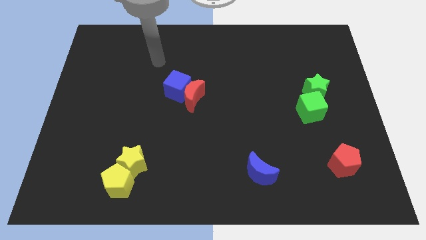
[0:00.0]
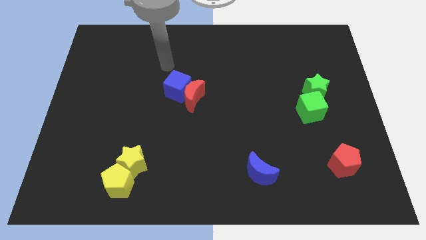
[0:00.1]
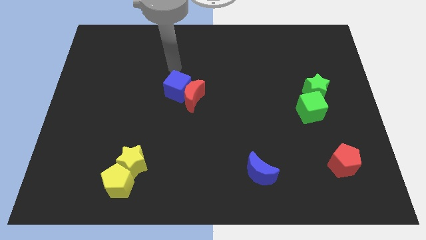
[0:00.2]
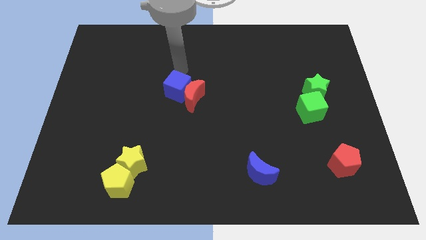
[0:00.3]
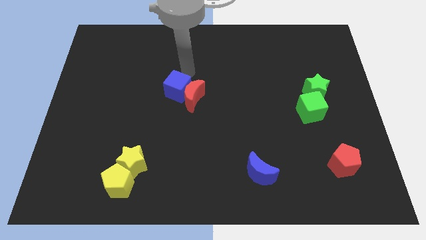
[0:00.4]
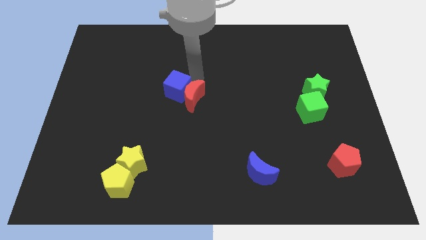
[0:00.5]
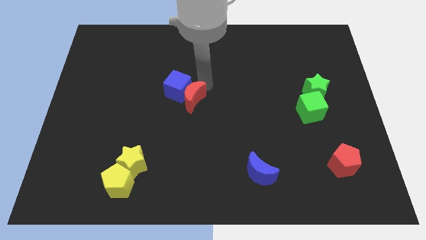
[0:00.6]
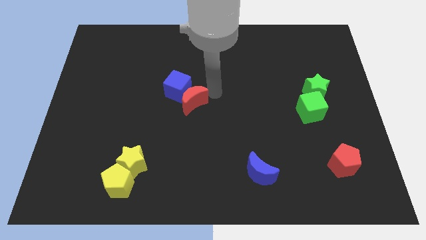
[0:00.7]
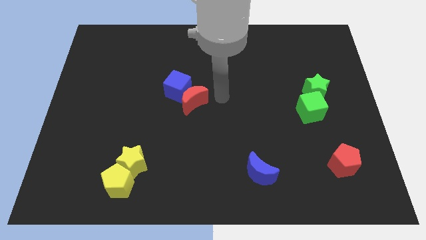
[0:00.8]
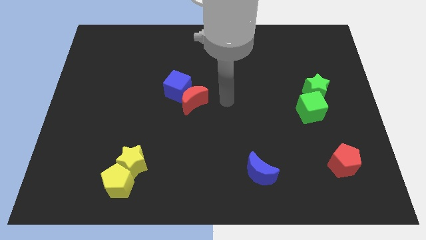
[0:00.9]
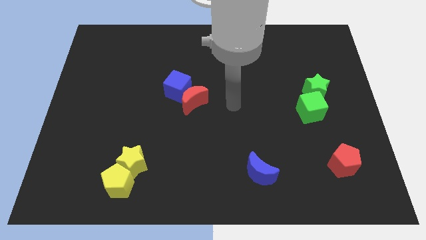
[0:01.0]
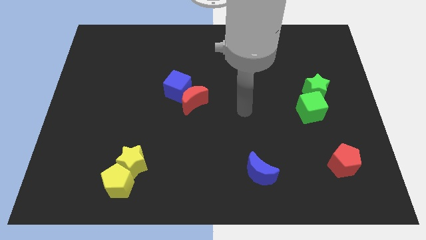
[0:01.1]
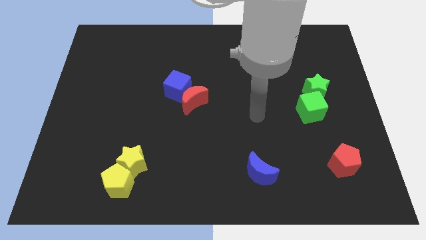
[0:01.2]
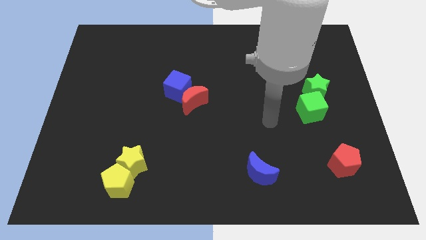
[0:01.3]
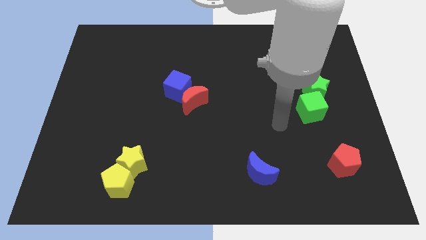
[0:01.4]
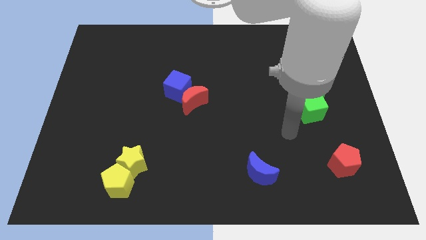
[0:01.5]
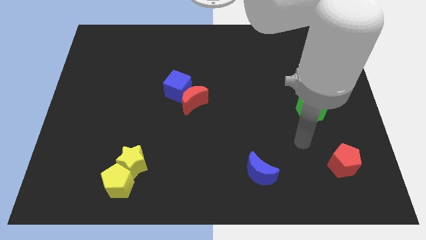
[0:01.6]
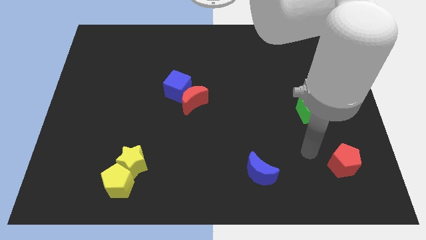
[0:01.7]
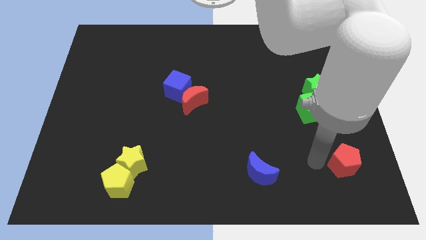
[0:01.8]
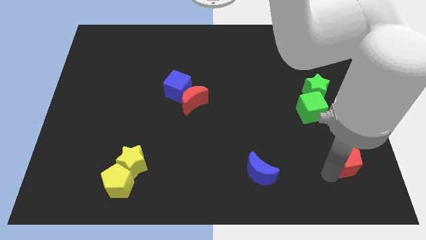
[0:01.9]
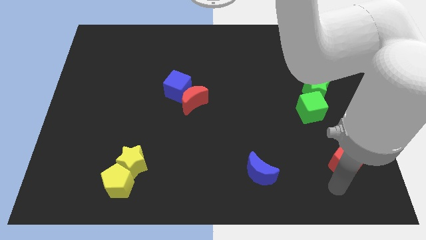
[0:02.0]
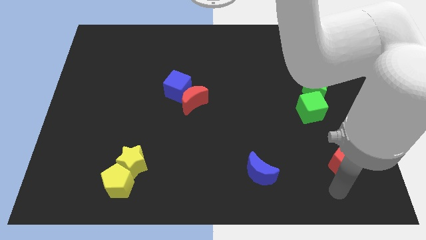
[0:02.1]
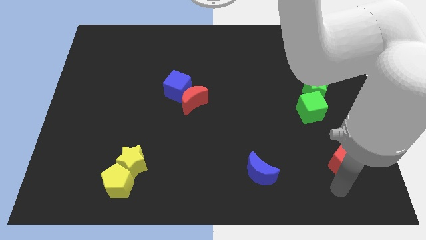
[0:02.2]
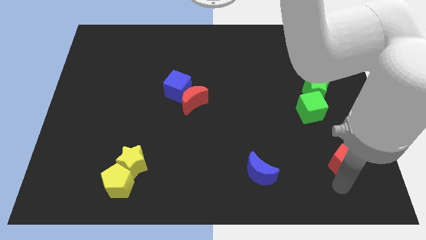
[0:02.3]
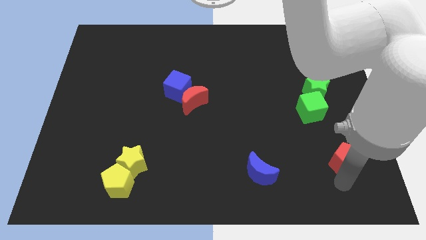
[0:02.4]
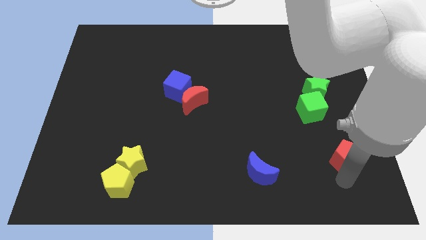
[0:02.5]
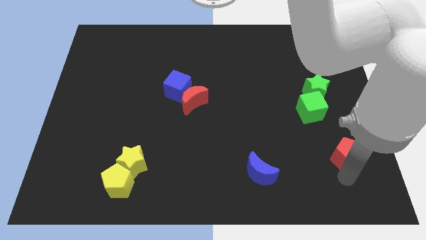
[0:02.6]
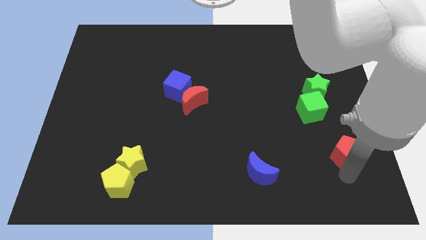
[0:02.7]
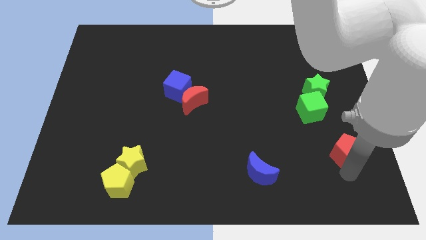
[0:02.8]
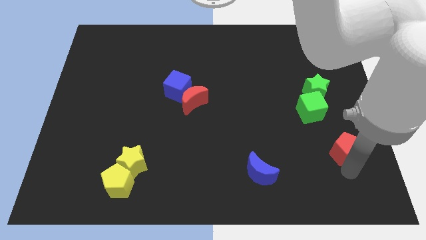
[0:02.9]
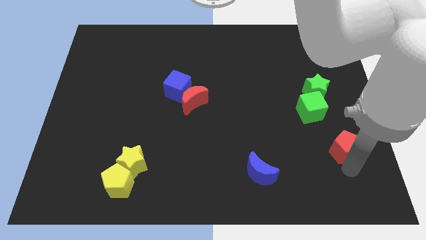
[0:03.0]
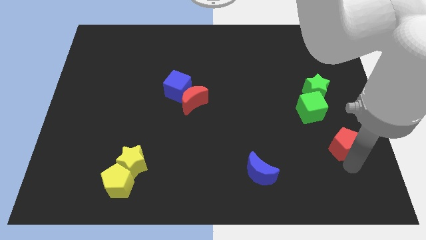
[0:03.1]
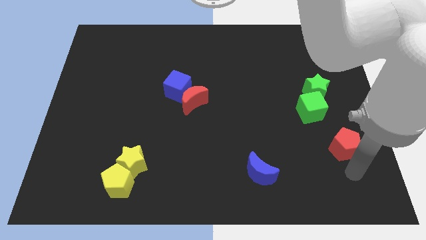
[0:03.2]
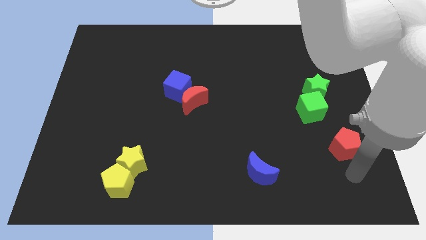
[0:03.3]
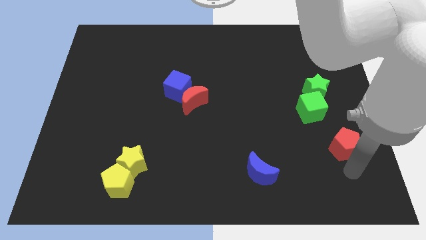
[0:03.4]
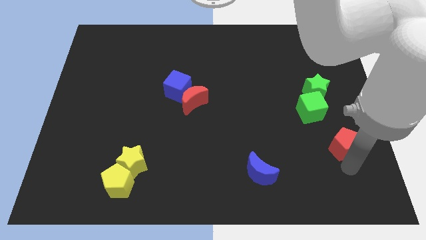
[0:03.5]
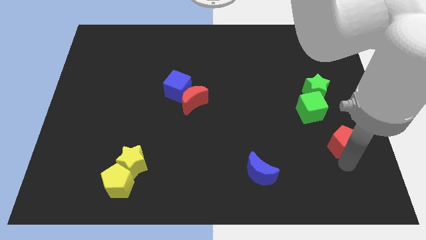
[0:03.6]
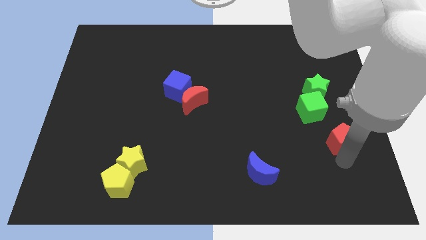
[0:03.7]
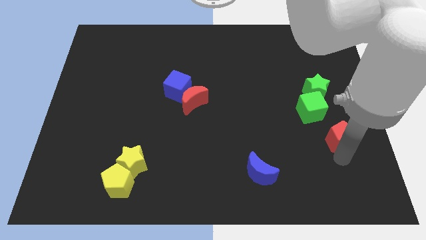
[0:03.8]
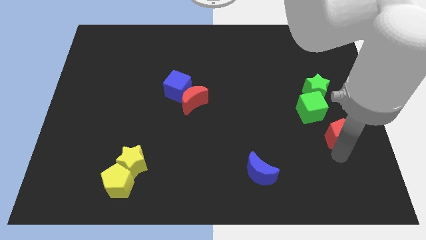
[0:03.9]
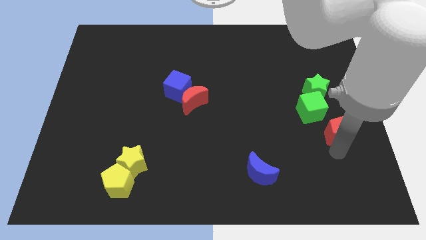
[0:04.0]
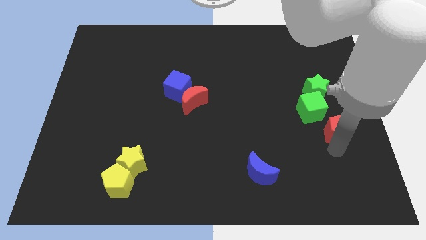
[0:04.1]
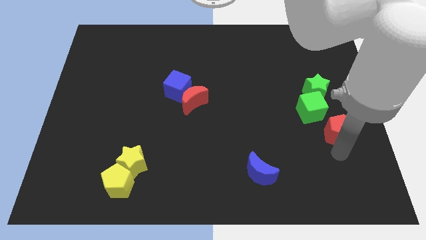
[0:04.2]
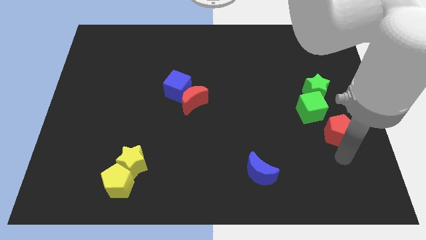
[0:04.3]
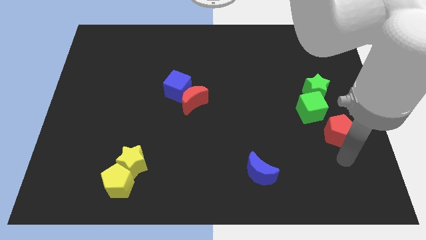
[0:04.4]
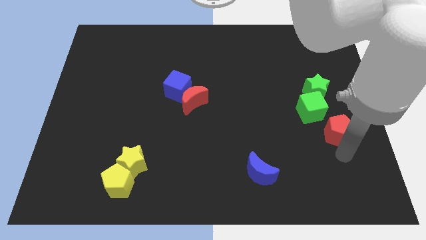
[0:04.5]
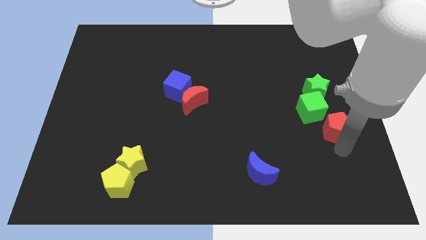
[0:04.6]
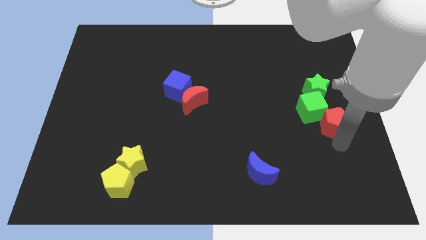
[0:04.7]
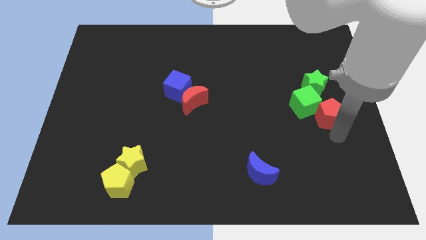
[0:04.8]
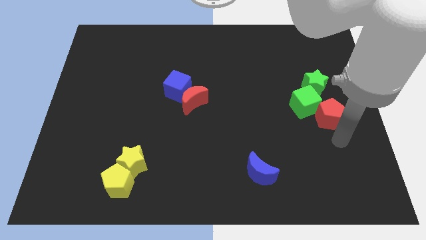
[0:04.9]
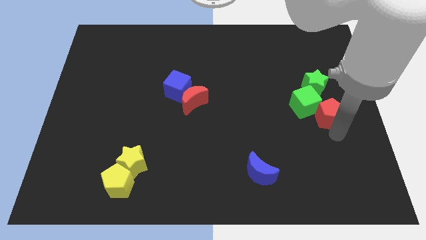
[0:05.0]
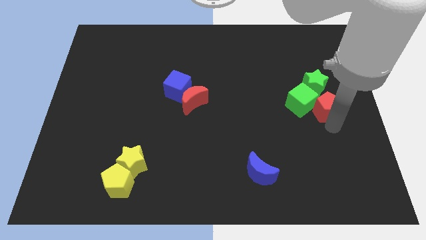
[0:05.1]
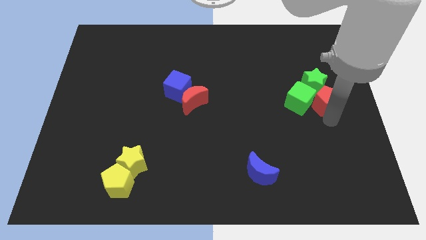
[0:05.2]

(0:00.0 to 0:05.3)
put the red pentagon to the green star

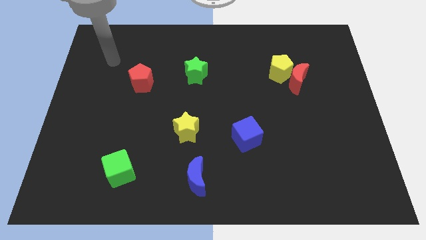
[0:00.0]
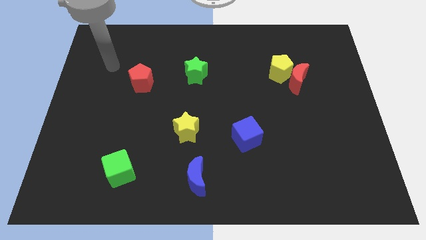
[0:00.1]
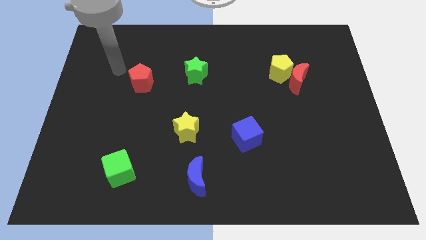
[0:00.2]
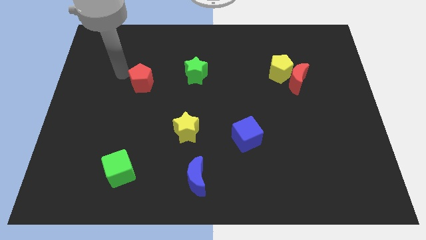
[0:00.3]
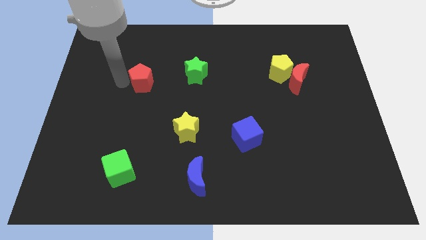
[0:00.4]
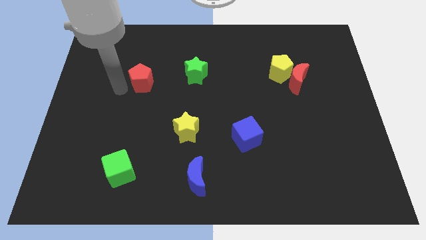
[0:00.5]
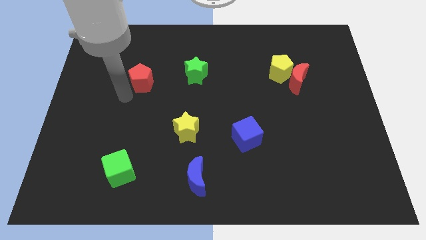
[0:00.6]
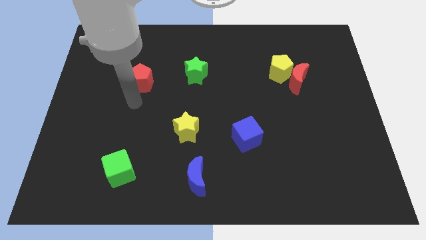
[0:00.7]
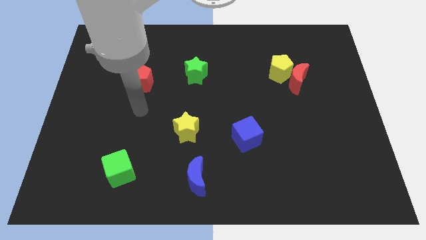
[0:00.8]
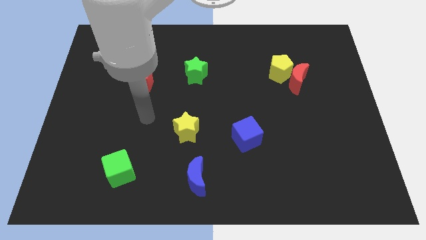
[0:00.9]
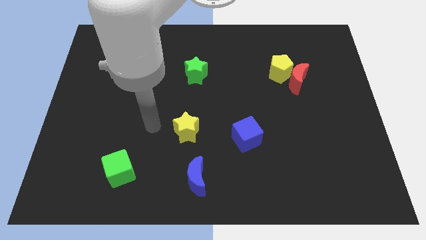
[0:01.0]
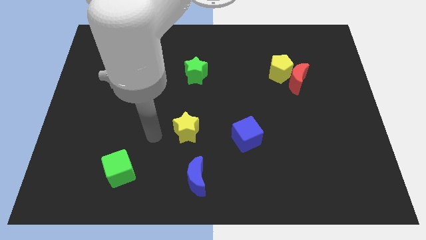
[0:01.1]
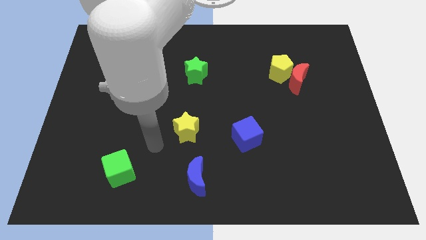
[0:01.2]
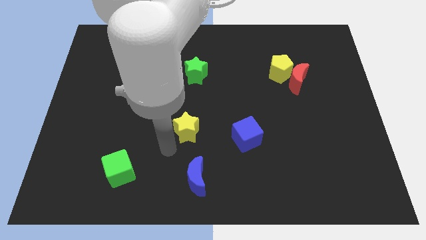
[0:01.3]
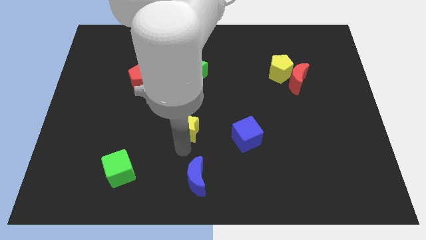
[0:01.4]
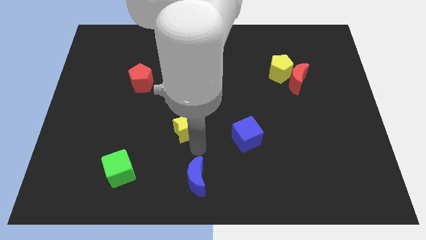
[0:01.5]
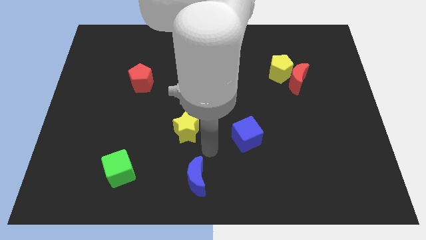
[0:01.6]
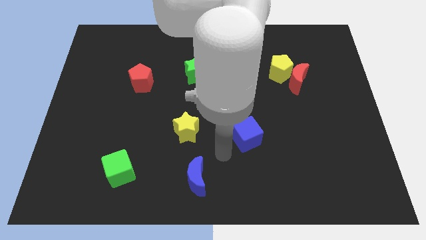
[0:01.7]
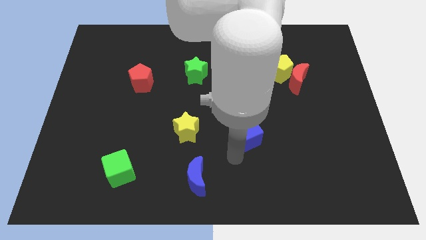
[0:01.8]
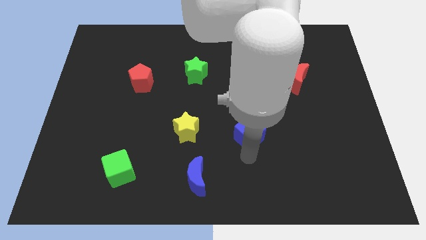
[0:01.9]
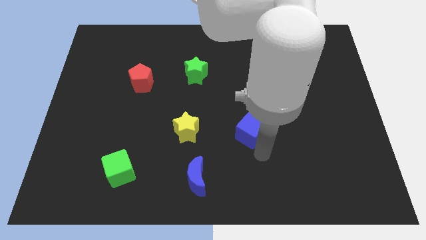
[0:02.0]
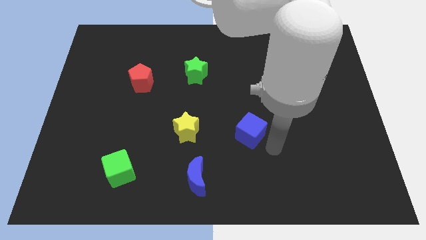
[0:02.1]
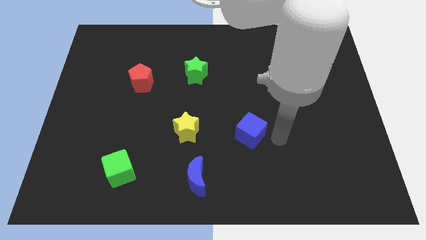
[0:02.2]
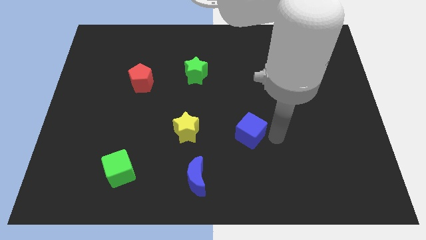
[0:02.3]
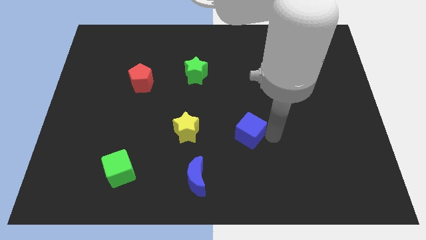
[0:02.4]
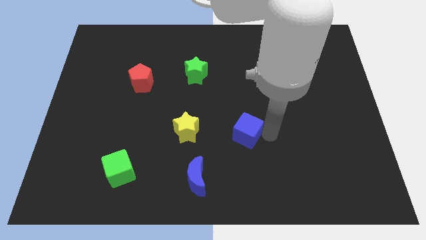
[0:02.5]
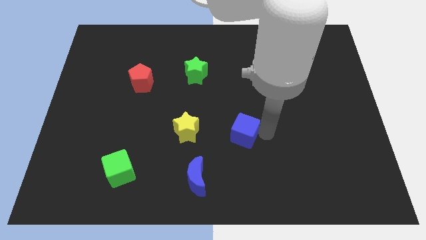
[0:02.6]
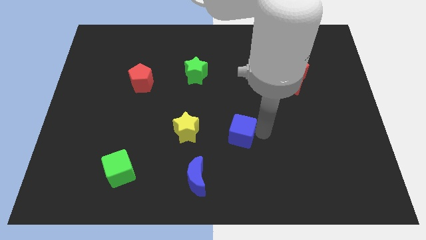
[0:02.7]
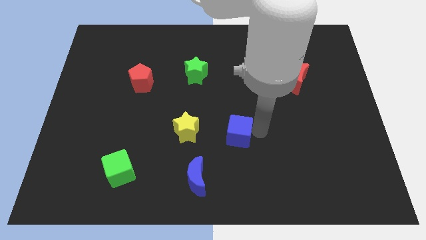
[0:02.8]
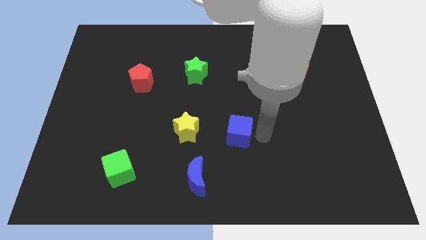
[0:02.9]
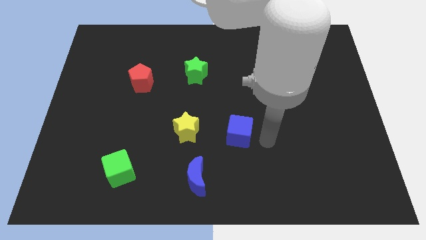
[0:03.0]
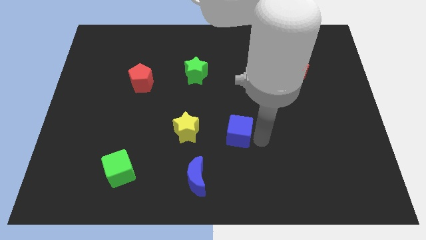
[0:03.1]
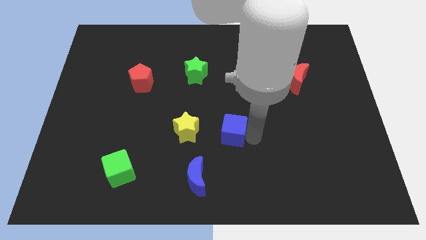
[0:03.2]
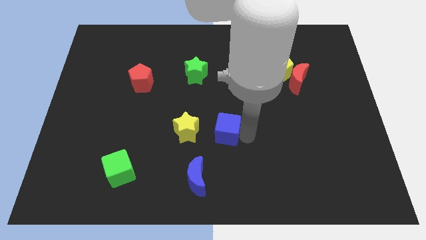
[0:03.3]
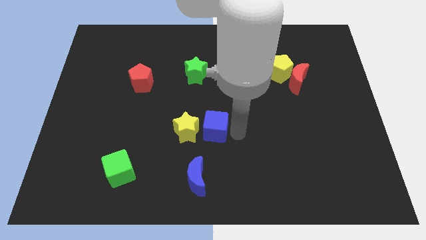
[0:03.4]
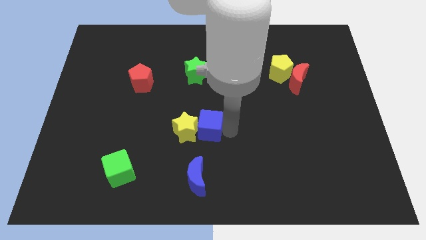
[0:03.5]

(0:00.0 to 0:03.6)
push the blue cube next to the yellow star
